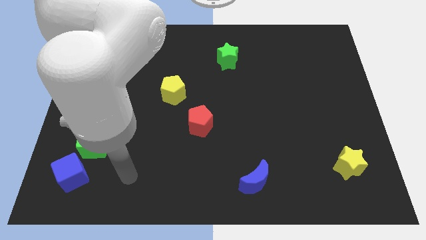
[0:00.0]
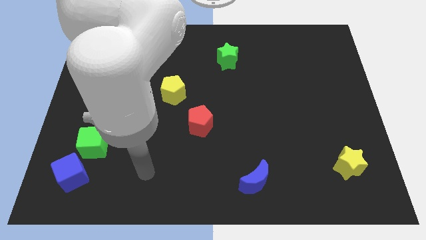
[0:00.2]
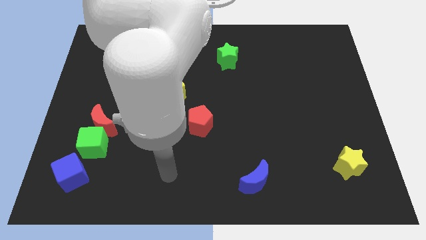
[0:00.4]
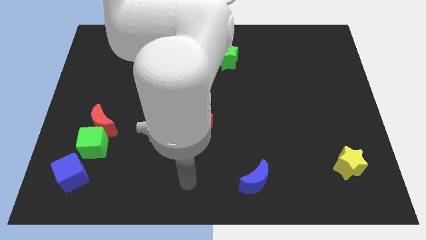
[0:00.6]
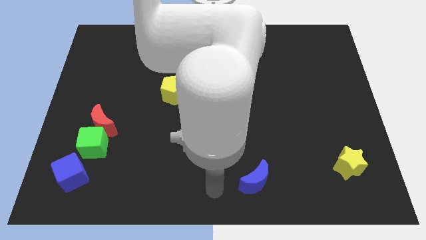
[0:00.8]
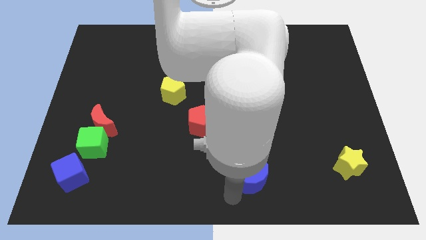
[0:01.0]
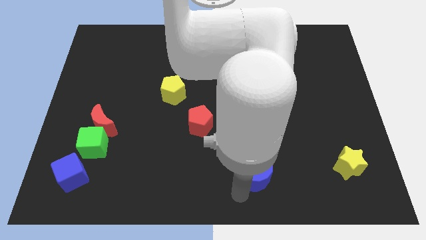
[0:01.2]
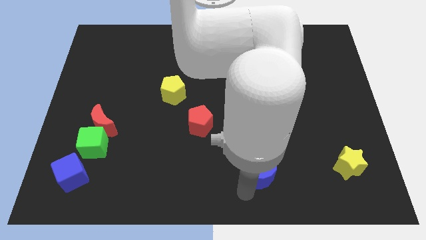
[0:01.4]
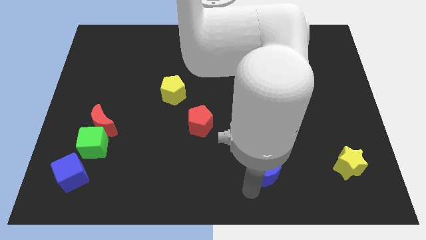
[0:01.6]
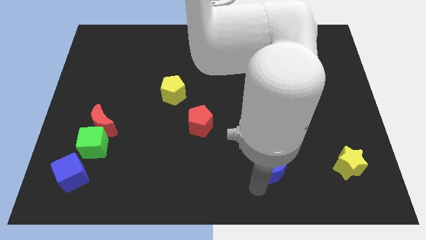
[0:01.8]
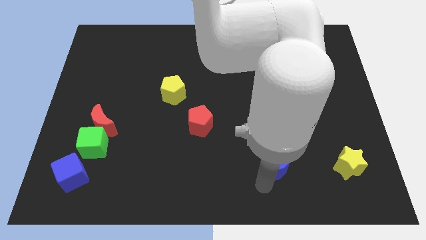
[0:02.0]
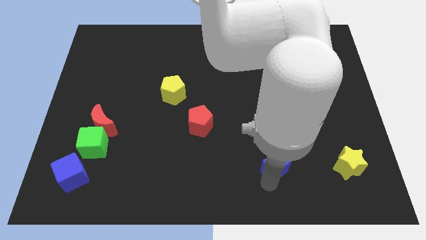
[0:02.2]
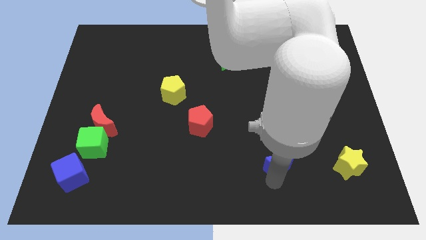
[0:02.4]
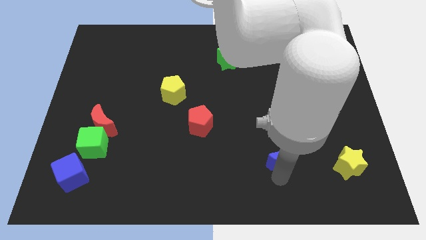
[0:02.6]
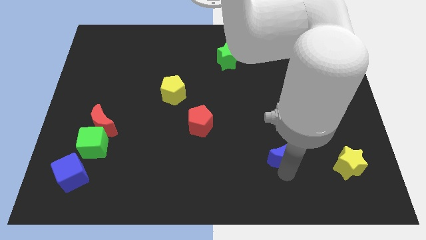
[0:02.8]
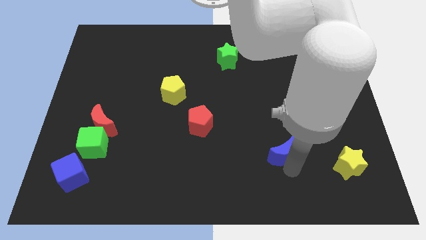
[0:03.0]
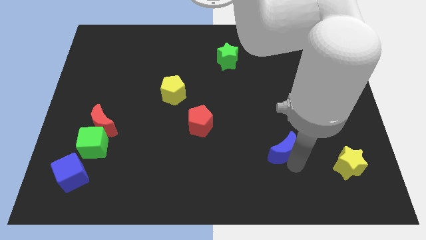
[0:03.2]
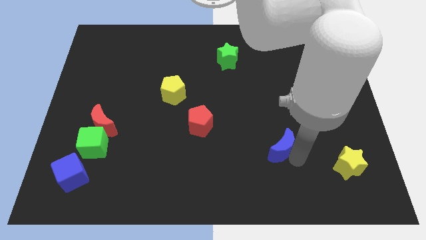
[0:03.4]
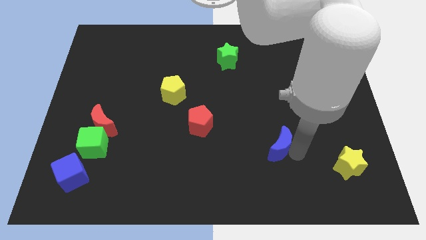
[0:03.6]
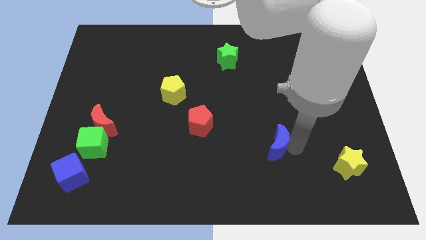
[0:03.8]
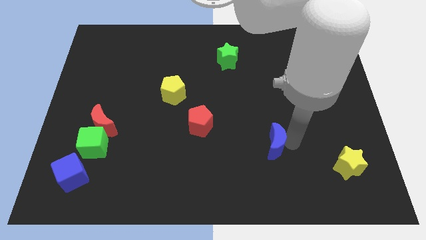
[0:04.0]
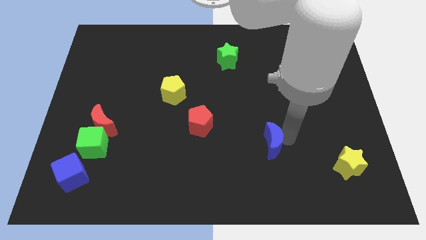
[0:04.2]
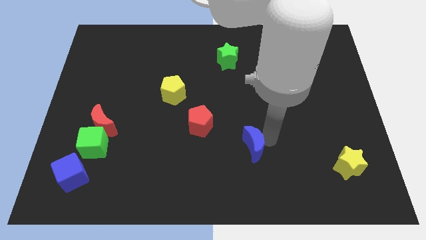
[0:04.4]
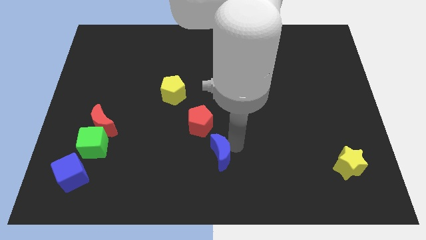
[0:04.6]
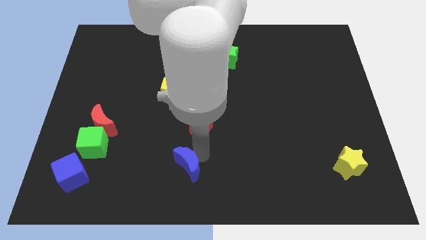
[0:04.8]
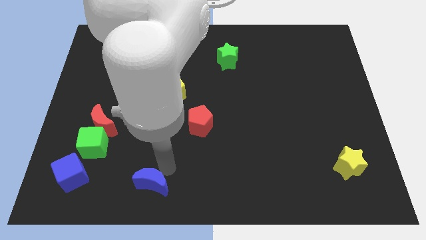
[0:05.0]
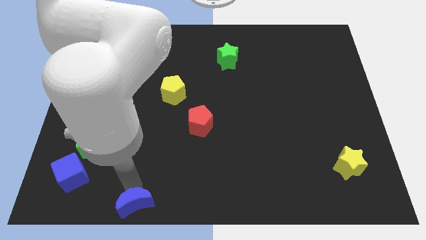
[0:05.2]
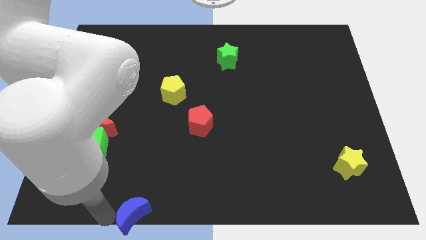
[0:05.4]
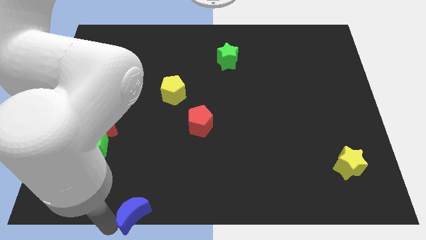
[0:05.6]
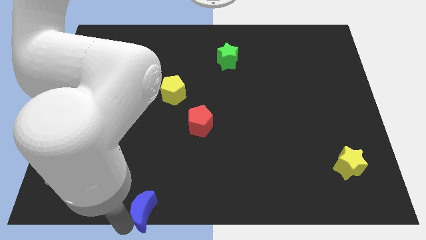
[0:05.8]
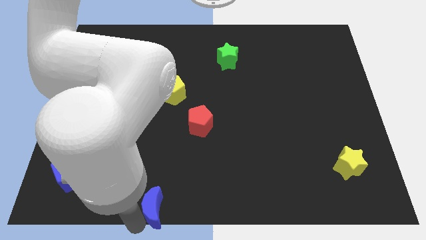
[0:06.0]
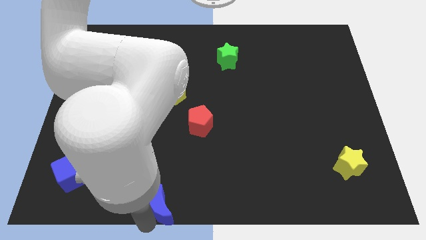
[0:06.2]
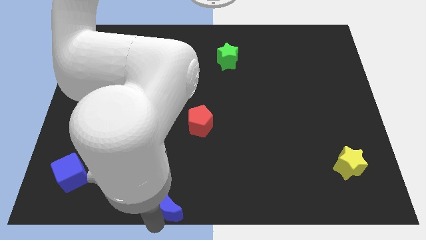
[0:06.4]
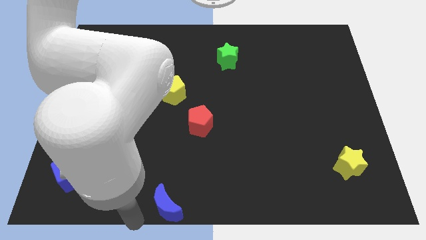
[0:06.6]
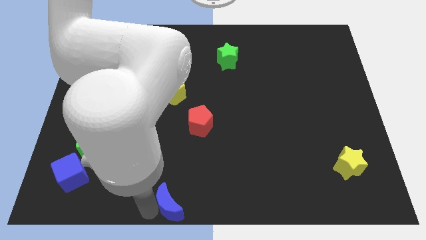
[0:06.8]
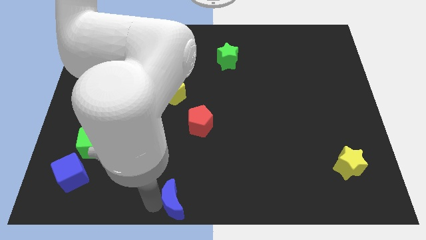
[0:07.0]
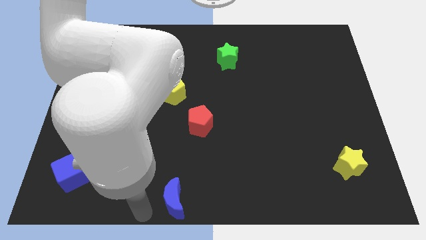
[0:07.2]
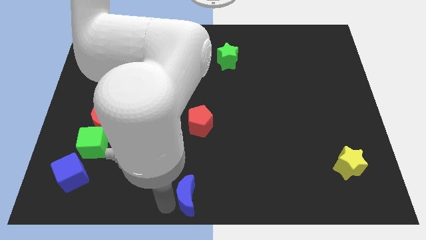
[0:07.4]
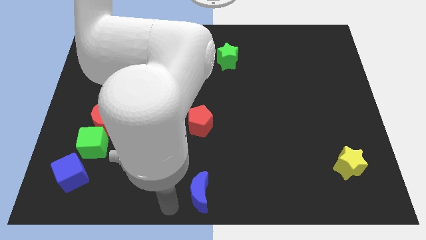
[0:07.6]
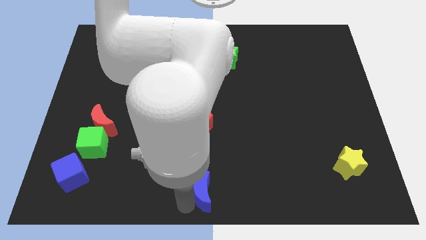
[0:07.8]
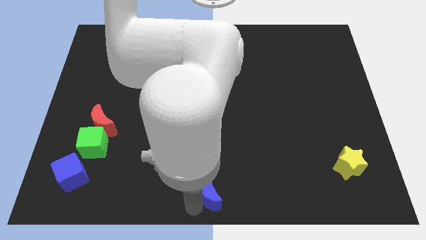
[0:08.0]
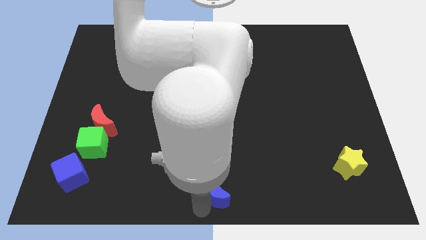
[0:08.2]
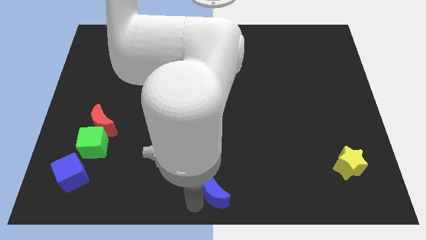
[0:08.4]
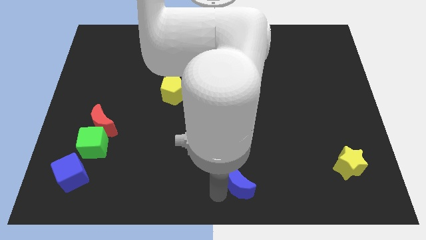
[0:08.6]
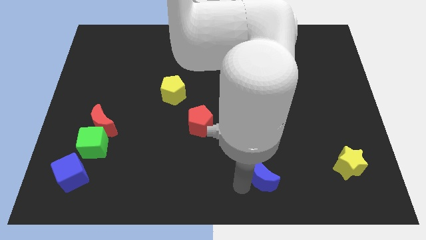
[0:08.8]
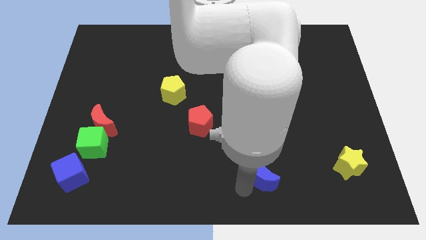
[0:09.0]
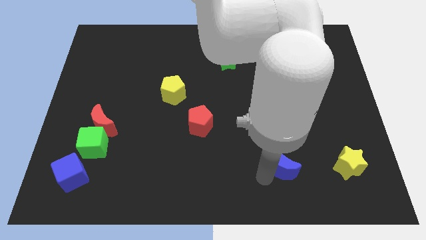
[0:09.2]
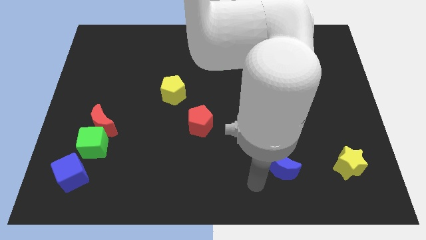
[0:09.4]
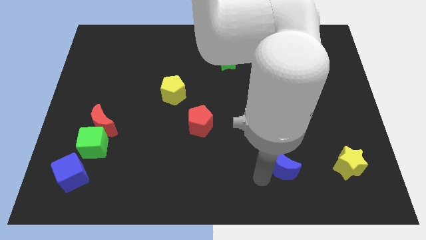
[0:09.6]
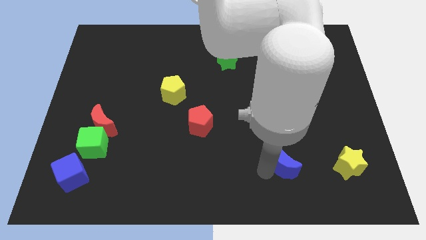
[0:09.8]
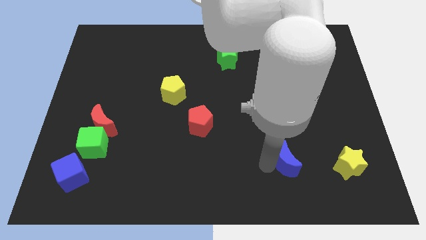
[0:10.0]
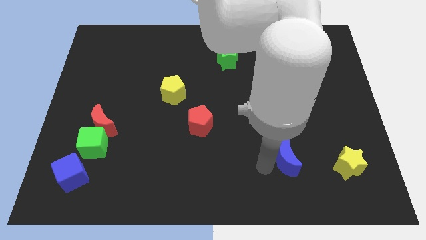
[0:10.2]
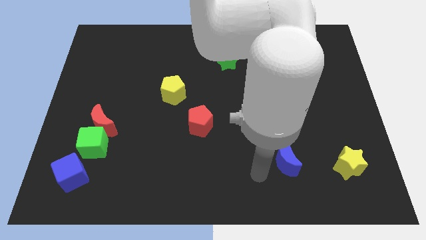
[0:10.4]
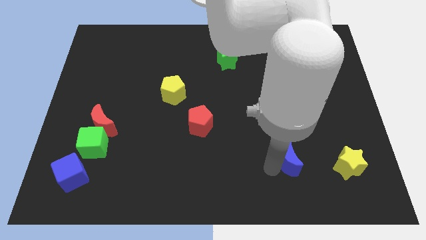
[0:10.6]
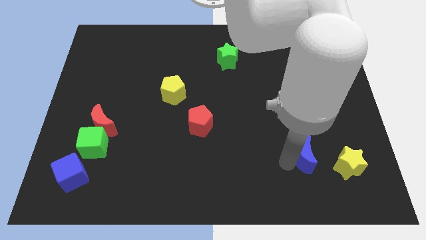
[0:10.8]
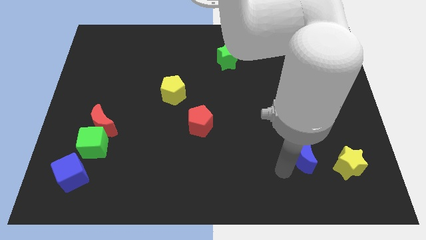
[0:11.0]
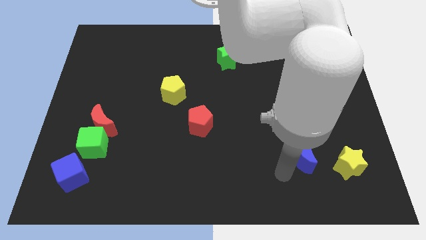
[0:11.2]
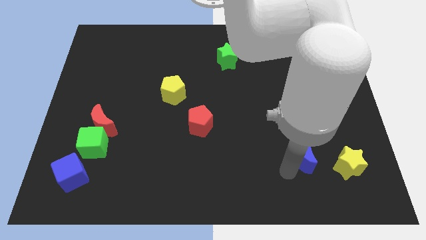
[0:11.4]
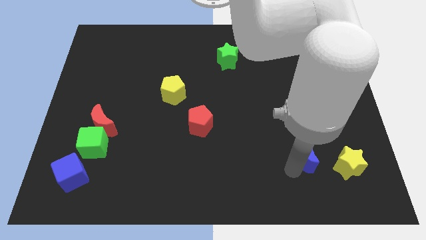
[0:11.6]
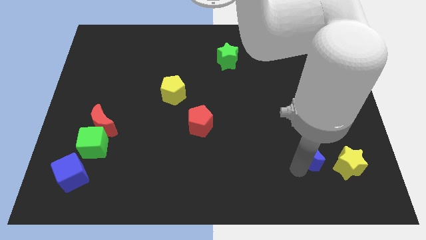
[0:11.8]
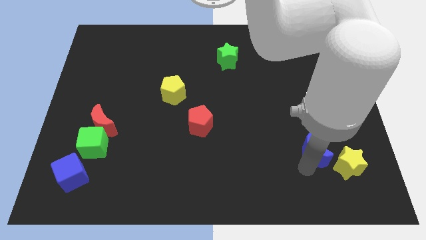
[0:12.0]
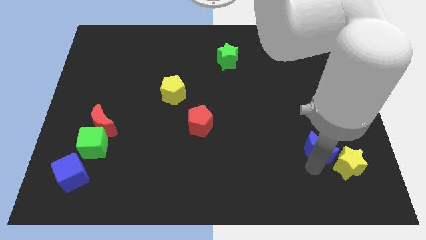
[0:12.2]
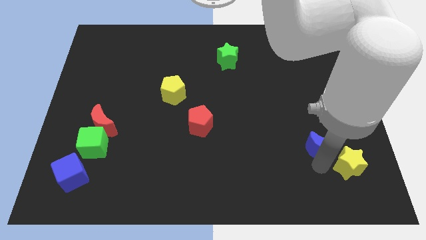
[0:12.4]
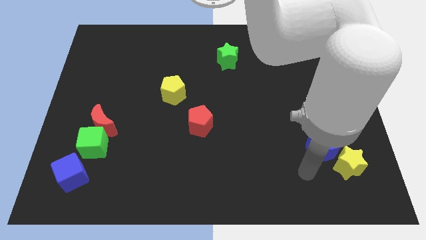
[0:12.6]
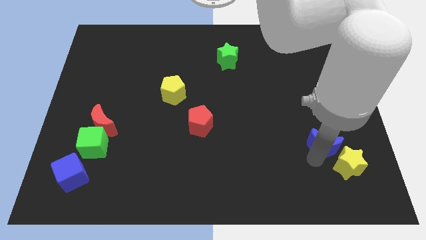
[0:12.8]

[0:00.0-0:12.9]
push the blue moon to the top of the yellow star

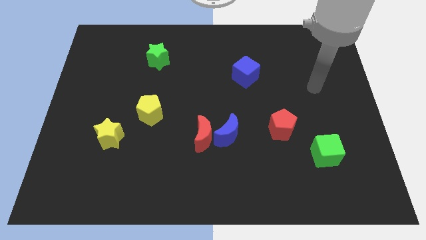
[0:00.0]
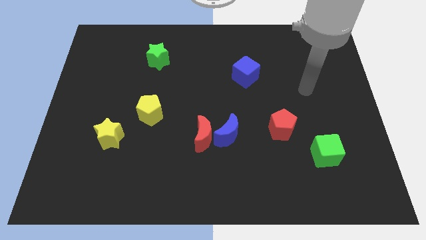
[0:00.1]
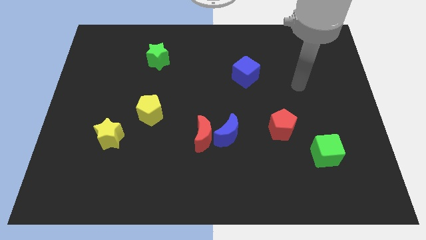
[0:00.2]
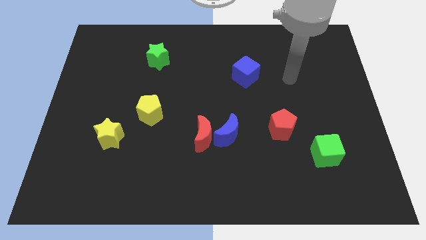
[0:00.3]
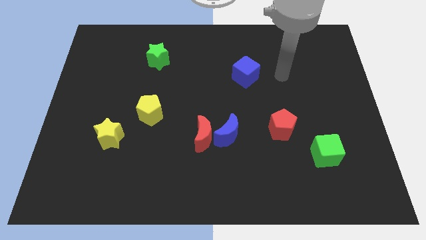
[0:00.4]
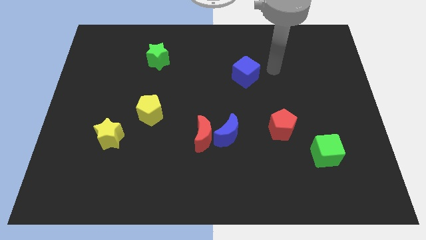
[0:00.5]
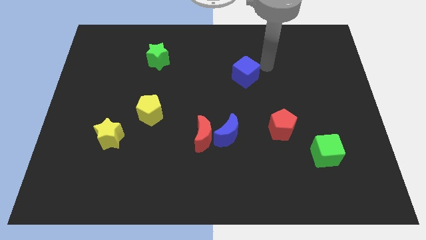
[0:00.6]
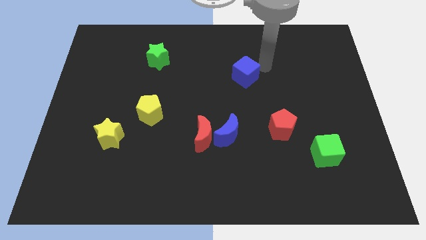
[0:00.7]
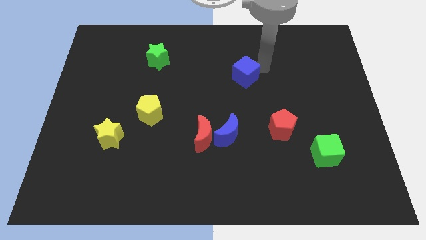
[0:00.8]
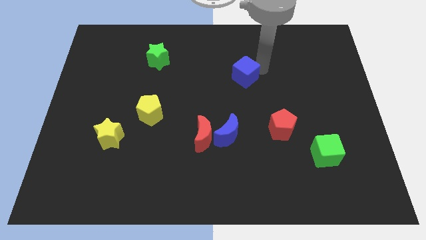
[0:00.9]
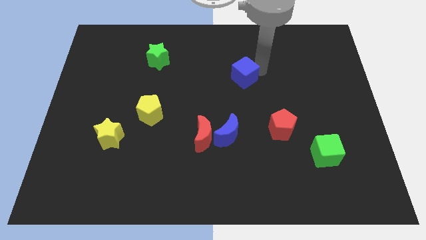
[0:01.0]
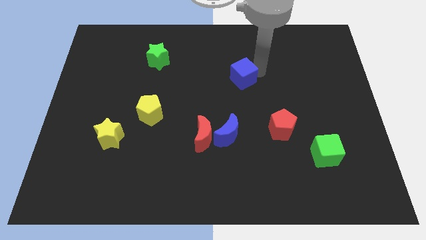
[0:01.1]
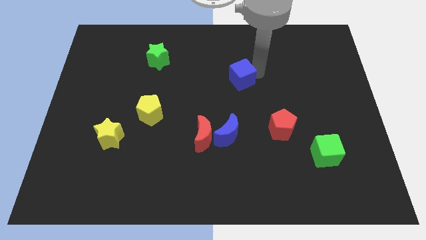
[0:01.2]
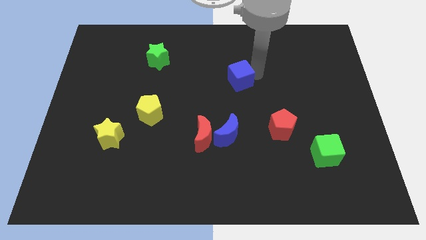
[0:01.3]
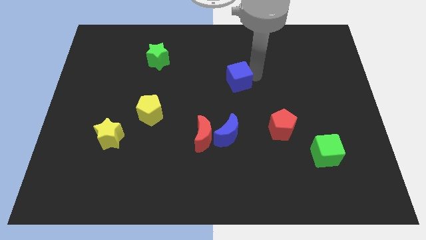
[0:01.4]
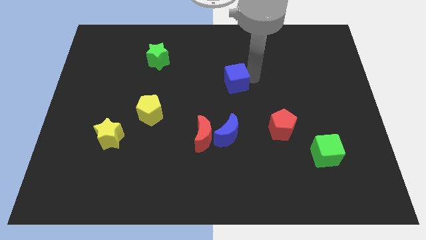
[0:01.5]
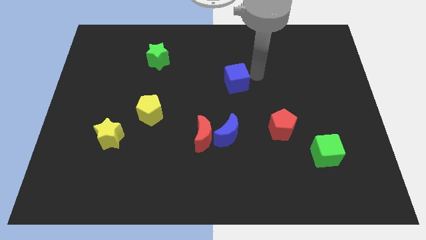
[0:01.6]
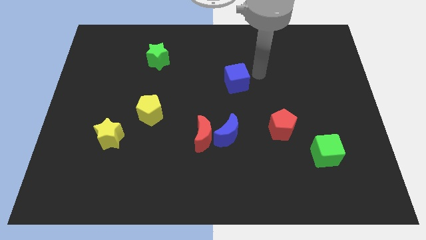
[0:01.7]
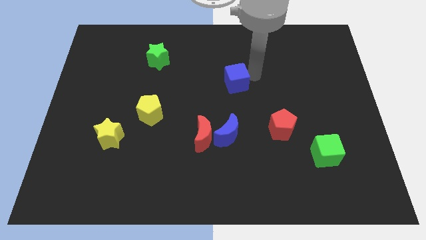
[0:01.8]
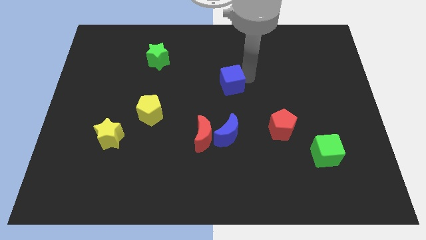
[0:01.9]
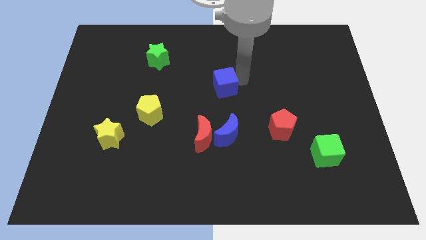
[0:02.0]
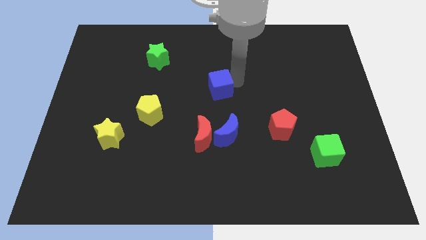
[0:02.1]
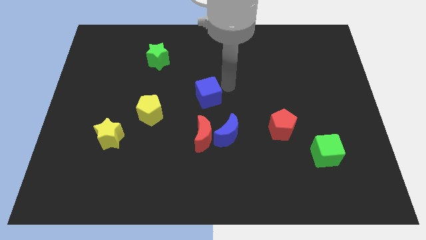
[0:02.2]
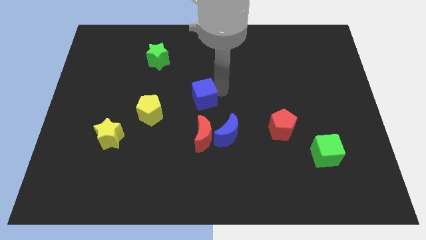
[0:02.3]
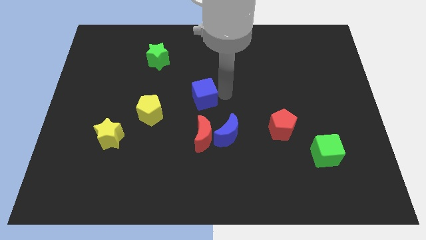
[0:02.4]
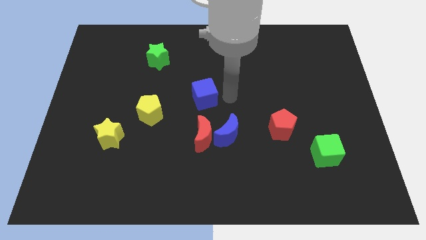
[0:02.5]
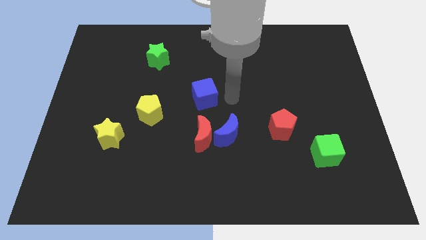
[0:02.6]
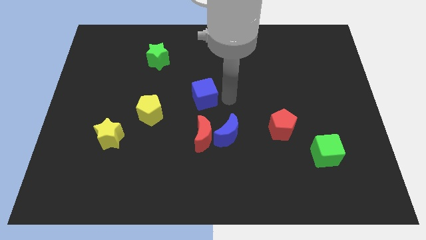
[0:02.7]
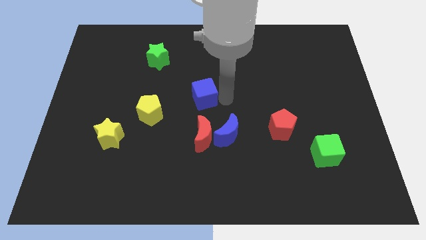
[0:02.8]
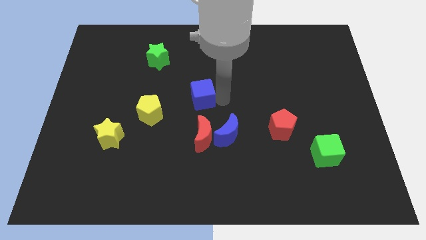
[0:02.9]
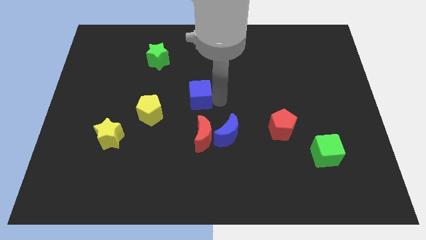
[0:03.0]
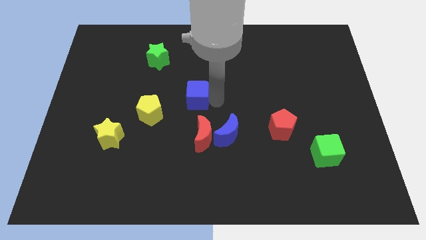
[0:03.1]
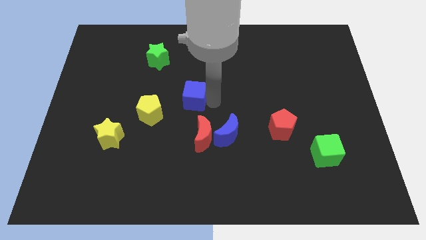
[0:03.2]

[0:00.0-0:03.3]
slide the blue cube diagonally up and to the right of the yellow pentagon
